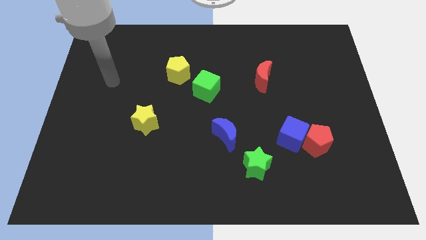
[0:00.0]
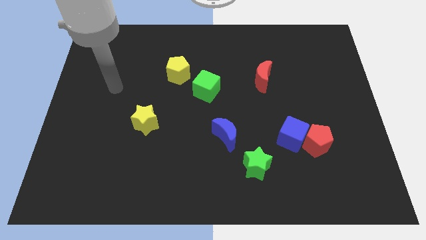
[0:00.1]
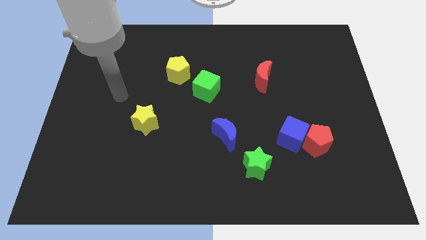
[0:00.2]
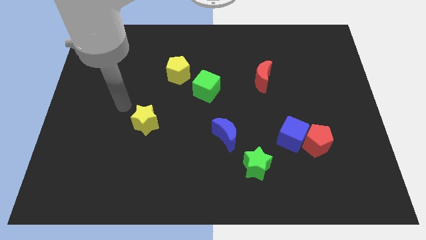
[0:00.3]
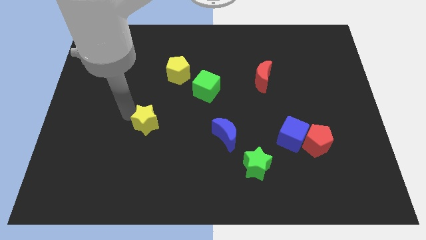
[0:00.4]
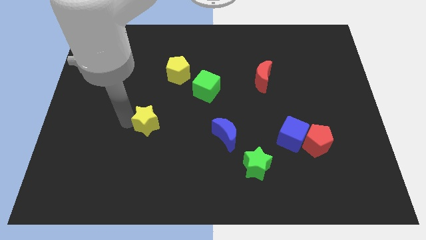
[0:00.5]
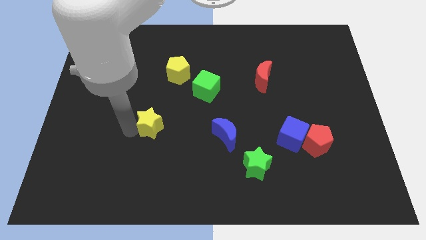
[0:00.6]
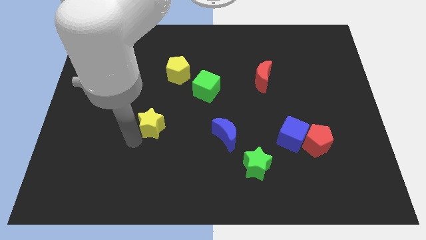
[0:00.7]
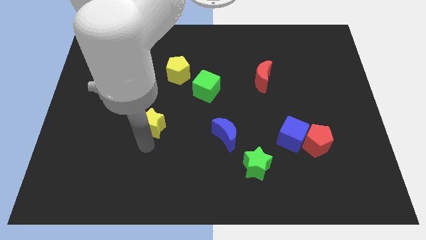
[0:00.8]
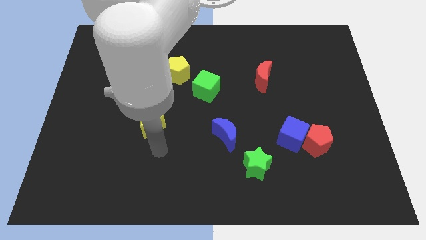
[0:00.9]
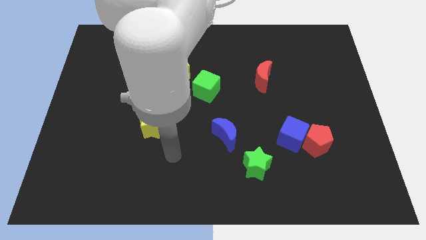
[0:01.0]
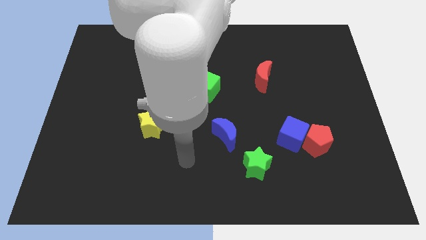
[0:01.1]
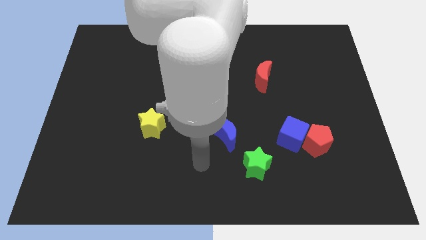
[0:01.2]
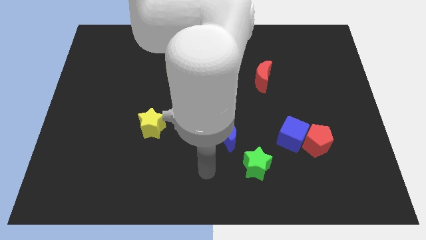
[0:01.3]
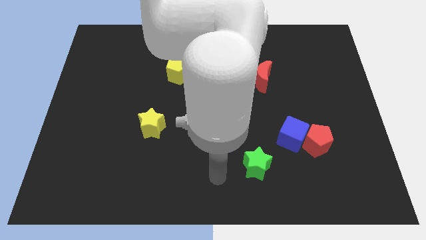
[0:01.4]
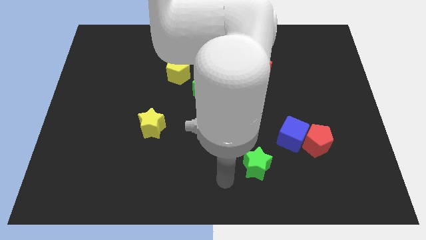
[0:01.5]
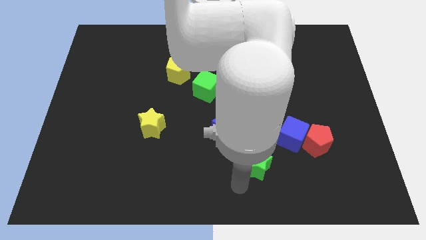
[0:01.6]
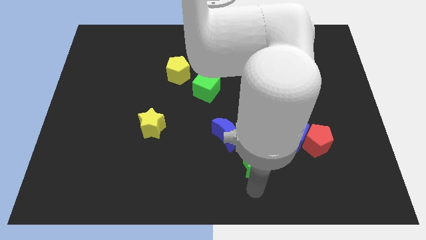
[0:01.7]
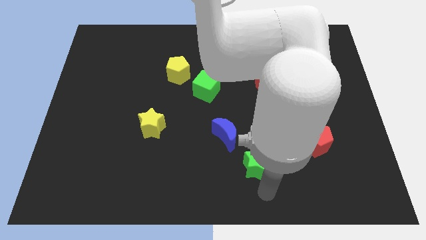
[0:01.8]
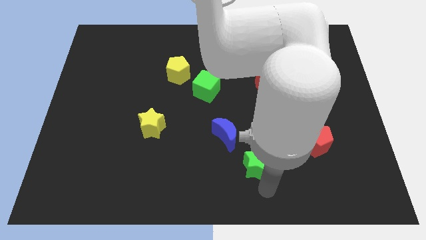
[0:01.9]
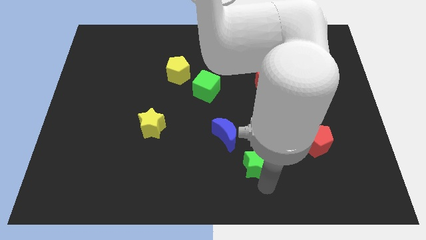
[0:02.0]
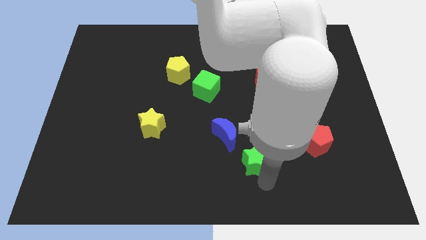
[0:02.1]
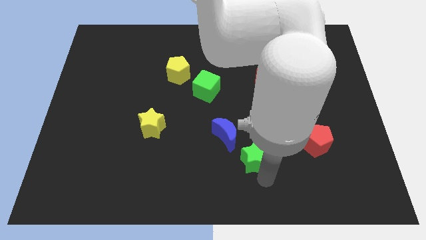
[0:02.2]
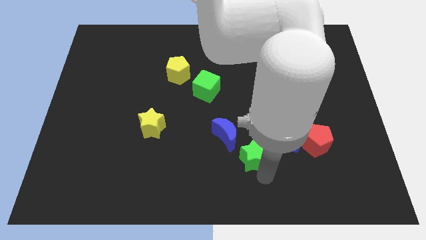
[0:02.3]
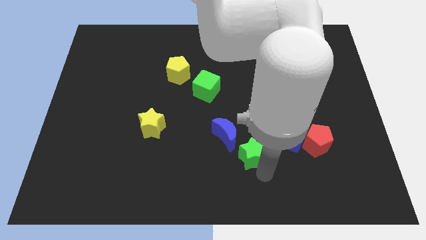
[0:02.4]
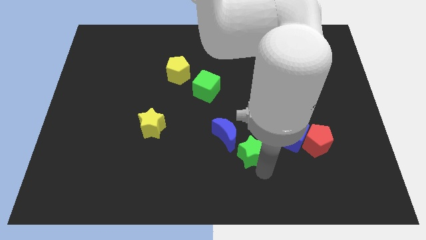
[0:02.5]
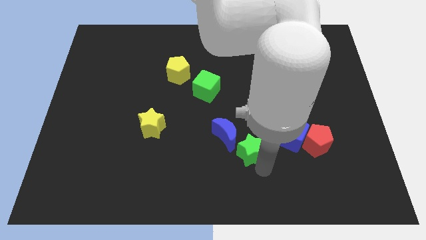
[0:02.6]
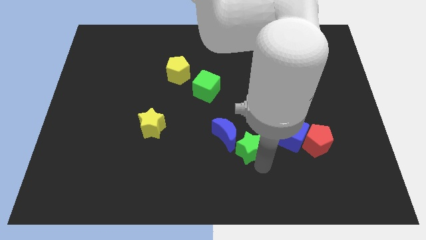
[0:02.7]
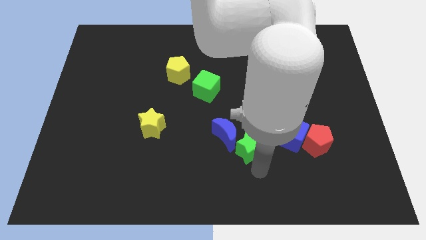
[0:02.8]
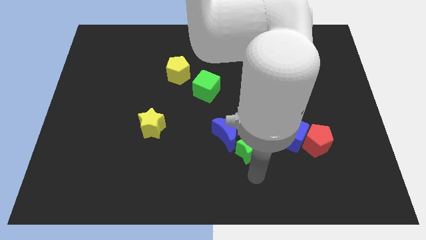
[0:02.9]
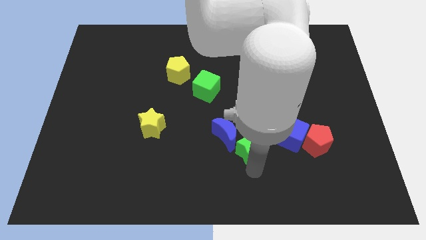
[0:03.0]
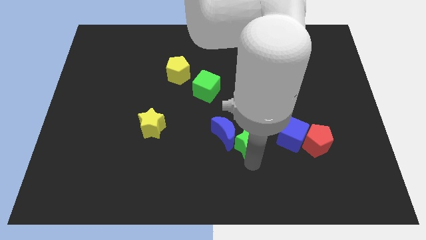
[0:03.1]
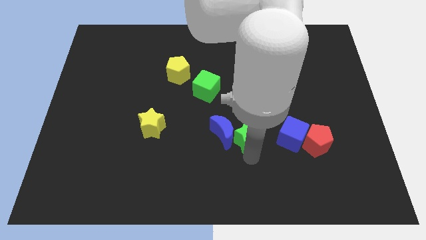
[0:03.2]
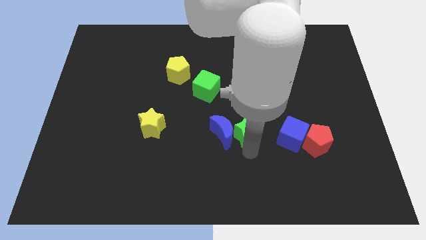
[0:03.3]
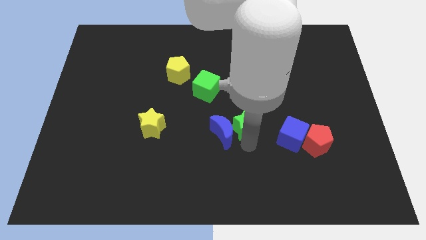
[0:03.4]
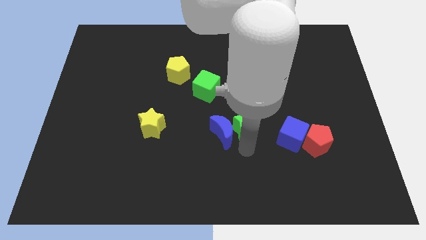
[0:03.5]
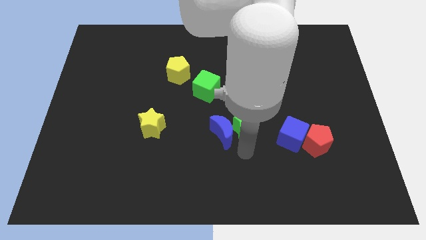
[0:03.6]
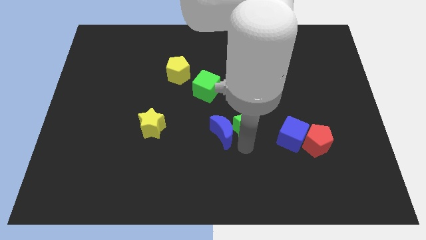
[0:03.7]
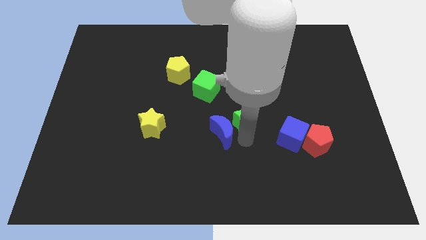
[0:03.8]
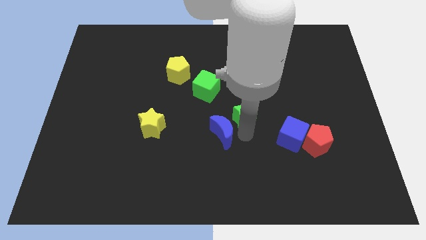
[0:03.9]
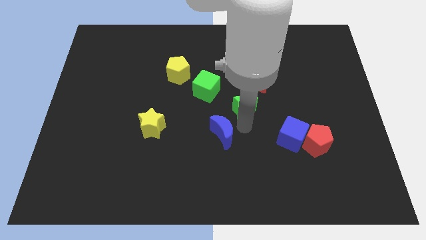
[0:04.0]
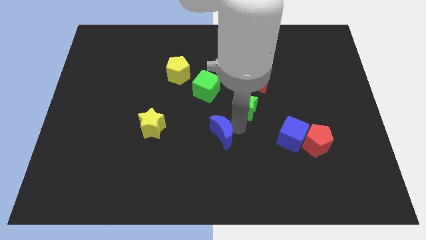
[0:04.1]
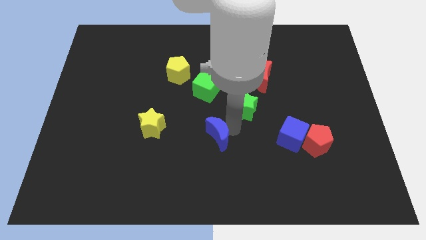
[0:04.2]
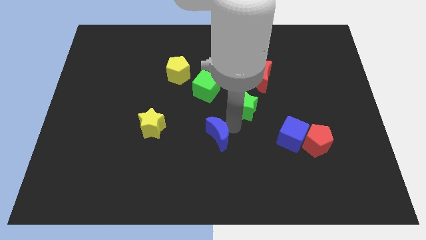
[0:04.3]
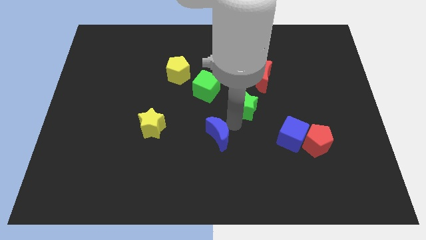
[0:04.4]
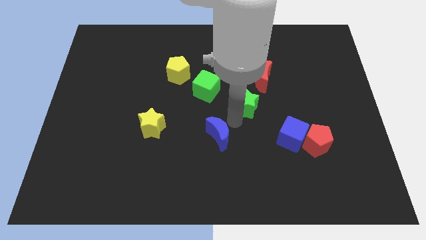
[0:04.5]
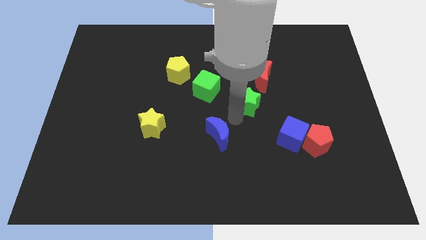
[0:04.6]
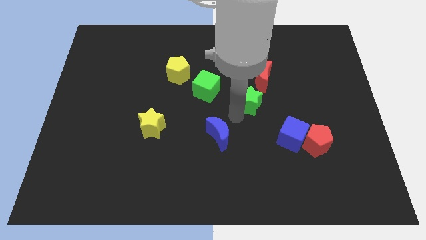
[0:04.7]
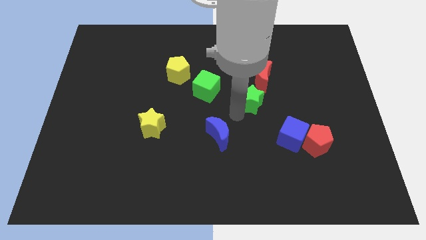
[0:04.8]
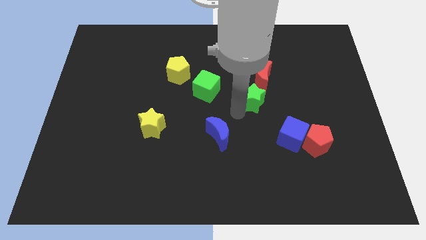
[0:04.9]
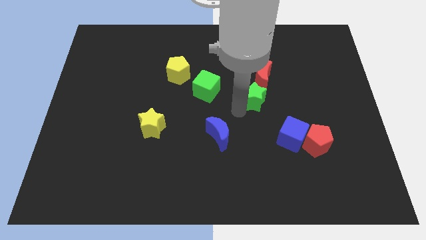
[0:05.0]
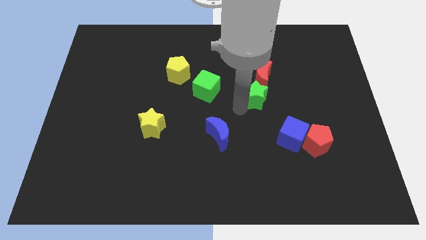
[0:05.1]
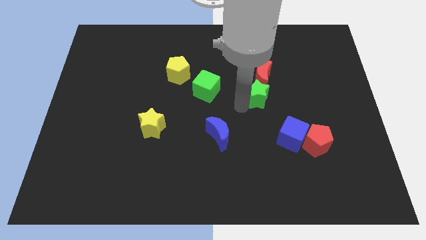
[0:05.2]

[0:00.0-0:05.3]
push the green star to the red moon
